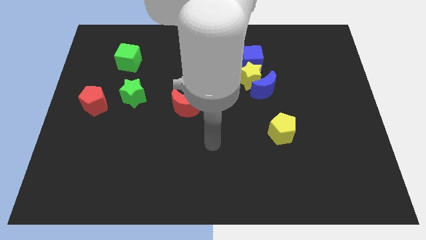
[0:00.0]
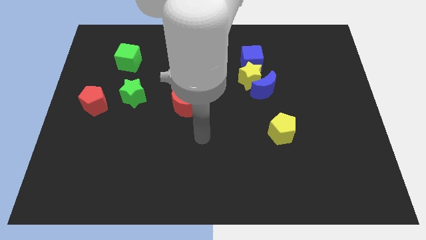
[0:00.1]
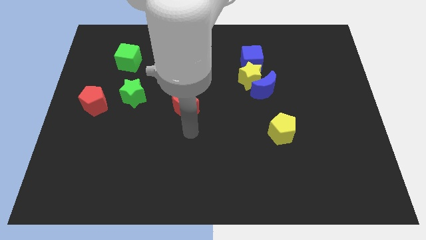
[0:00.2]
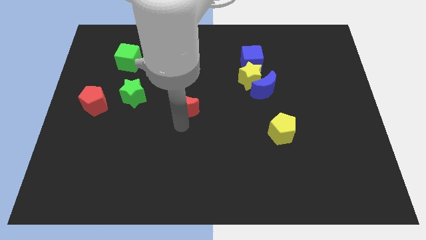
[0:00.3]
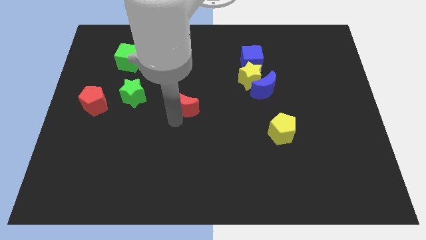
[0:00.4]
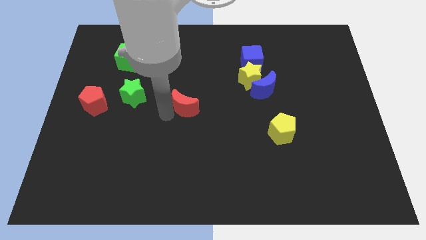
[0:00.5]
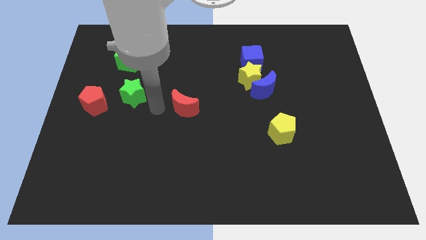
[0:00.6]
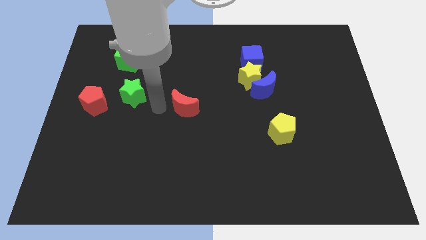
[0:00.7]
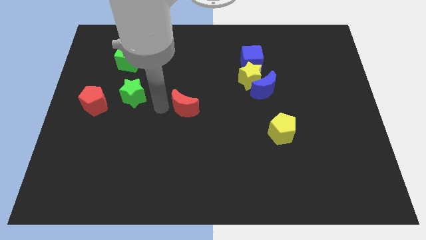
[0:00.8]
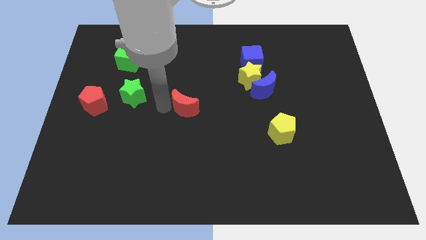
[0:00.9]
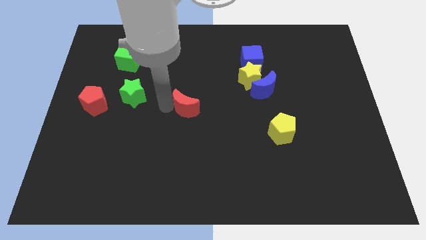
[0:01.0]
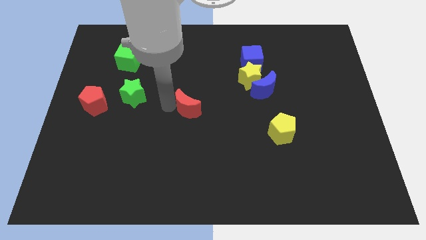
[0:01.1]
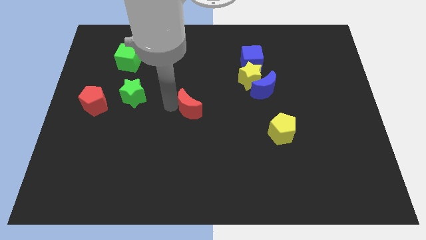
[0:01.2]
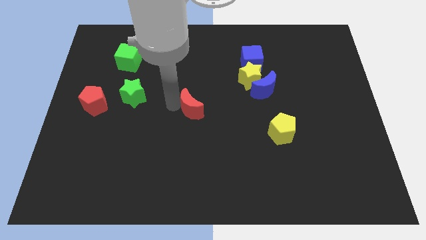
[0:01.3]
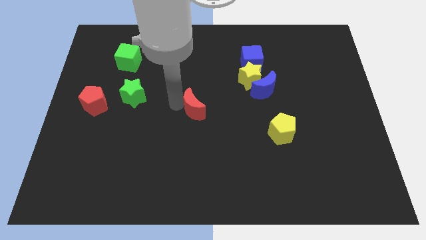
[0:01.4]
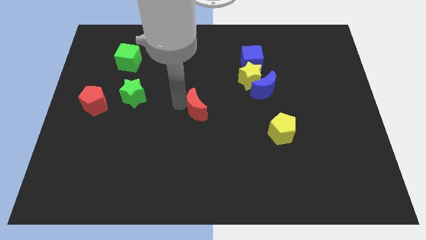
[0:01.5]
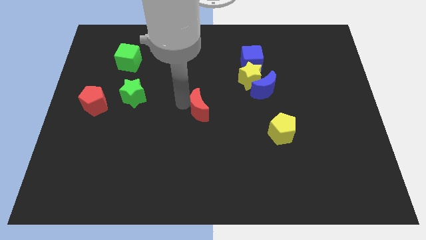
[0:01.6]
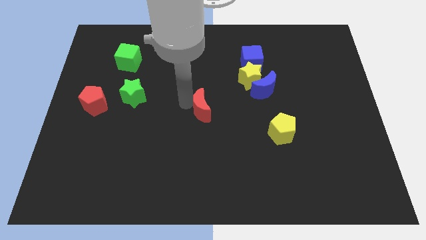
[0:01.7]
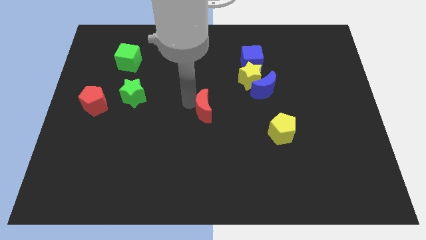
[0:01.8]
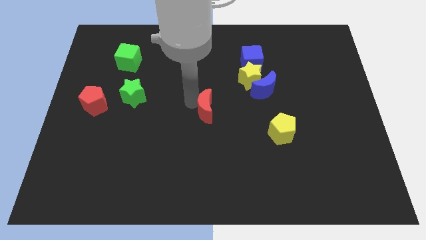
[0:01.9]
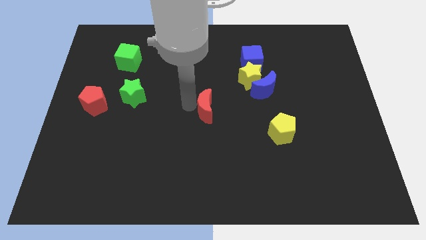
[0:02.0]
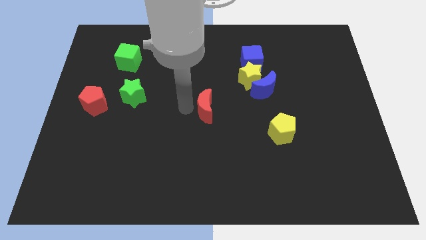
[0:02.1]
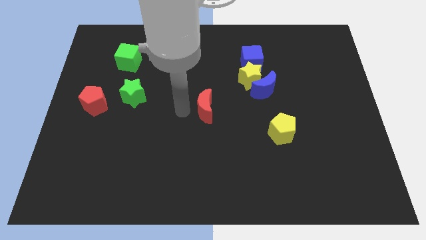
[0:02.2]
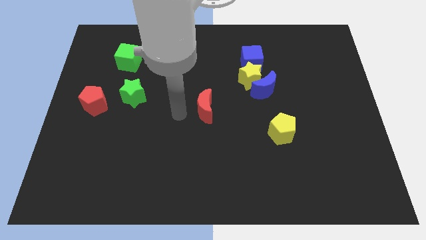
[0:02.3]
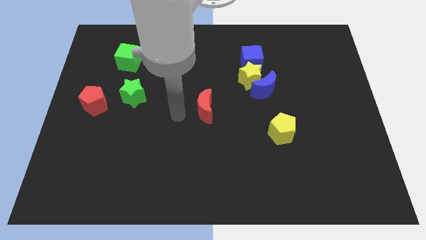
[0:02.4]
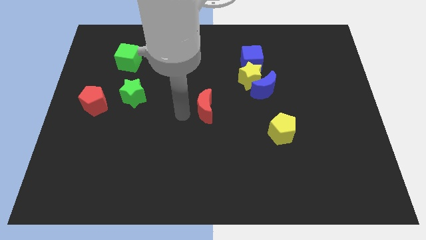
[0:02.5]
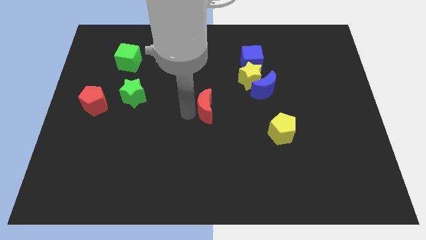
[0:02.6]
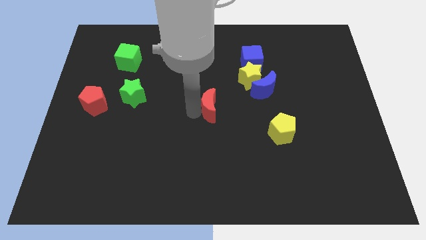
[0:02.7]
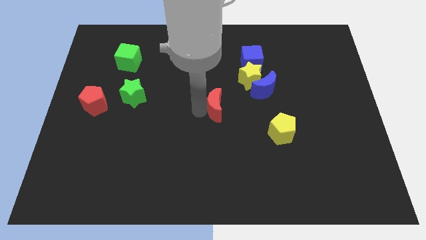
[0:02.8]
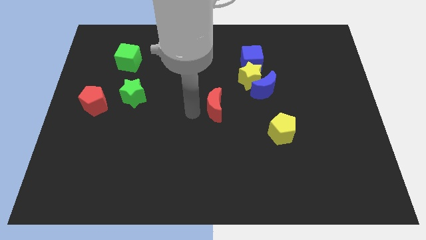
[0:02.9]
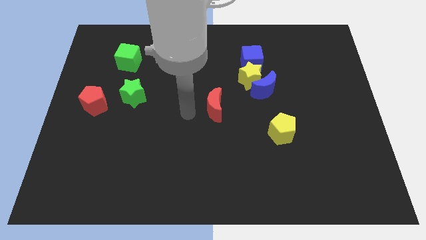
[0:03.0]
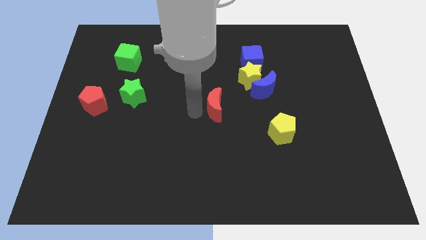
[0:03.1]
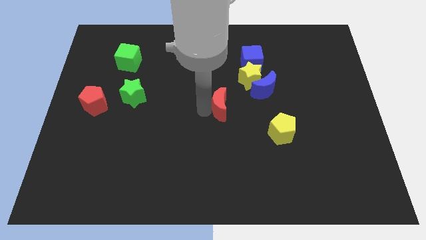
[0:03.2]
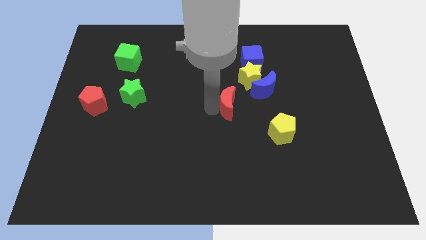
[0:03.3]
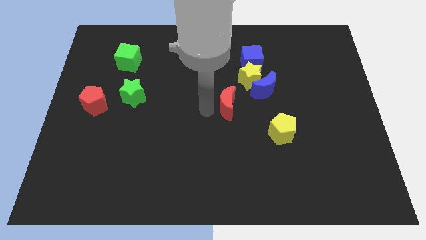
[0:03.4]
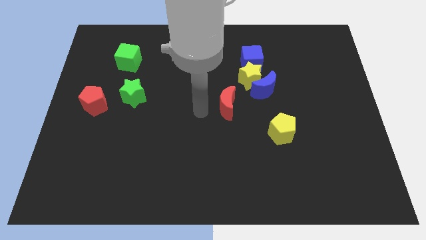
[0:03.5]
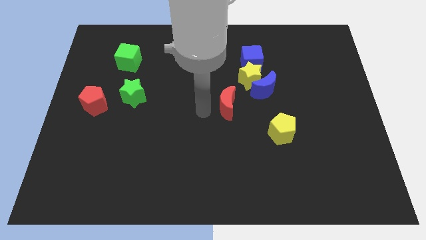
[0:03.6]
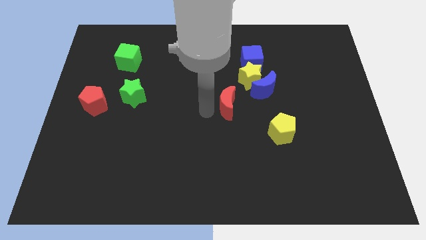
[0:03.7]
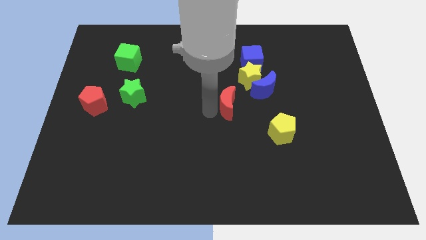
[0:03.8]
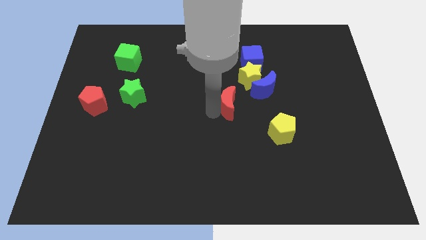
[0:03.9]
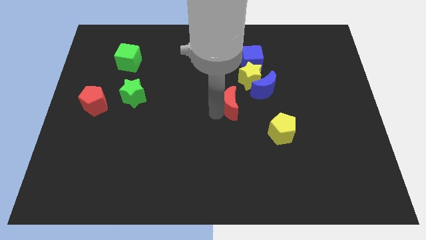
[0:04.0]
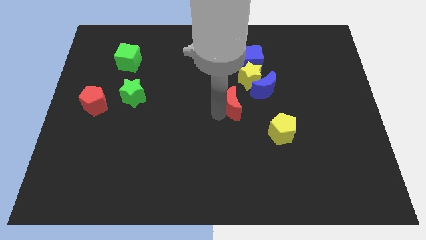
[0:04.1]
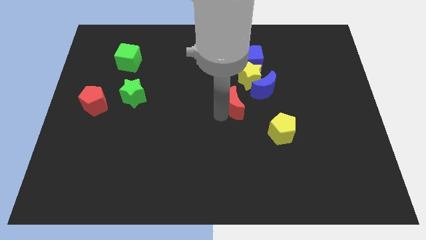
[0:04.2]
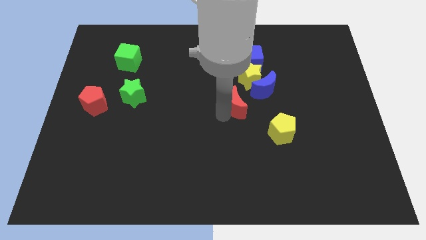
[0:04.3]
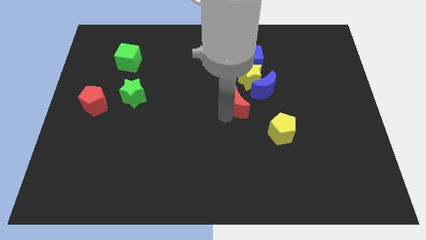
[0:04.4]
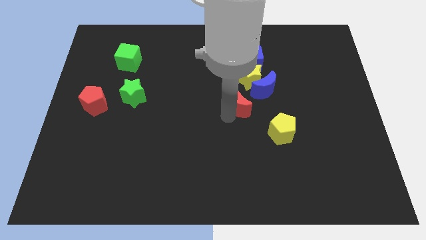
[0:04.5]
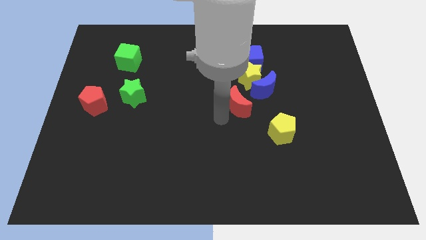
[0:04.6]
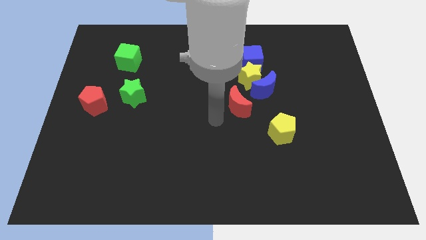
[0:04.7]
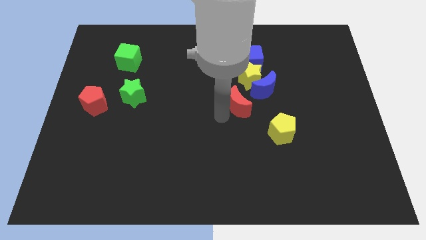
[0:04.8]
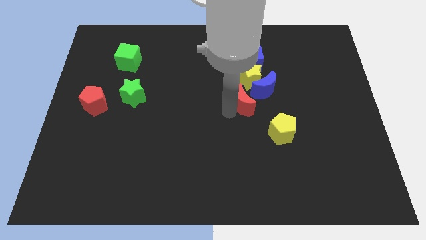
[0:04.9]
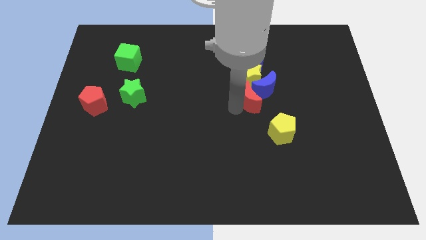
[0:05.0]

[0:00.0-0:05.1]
move the red moon next to the blue moon

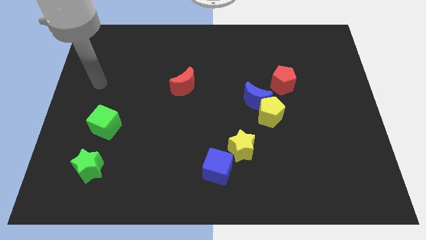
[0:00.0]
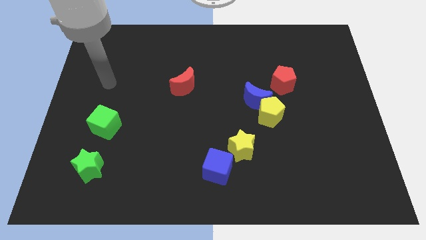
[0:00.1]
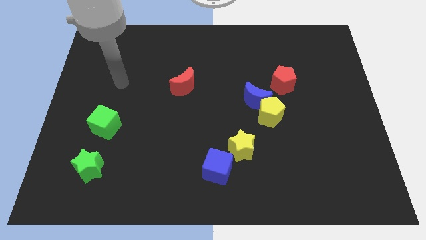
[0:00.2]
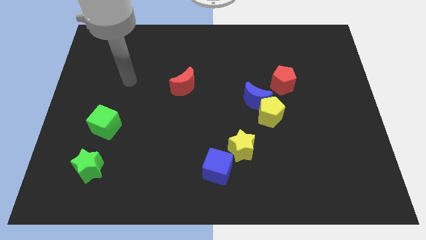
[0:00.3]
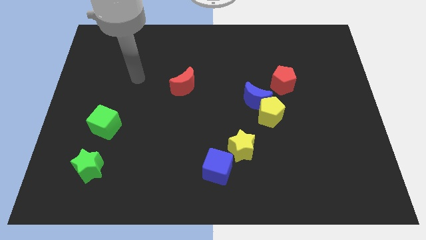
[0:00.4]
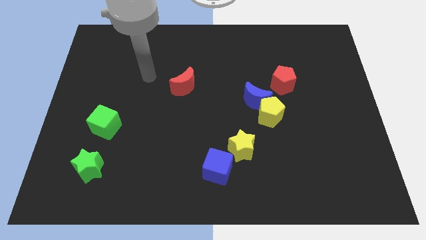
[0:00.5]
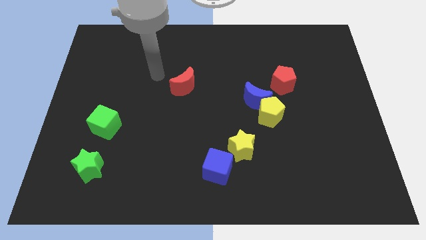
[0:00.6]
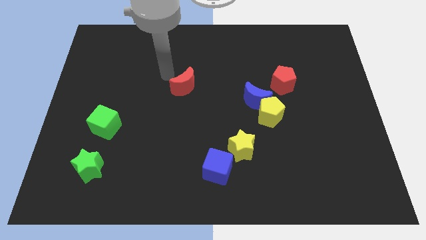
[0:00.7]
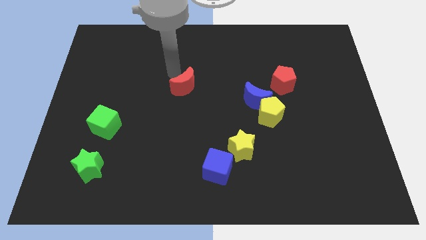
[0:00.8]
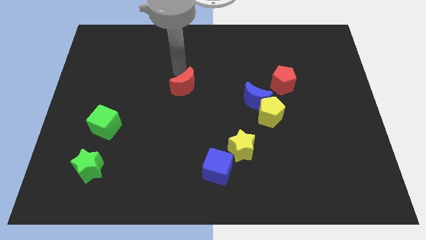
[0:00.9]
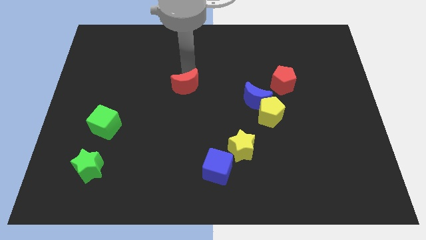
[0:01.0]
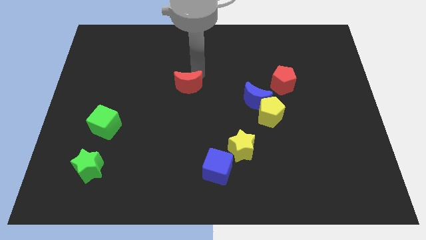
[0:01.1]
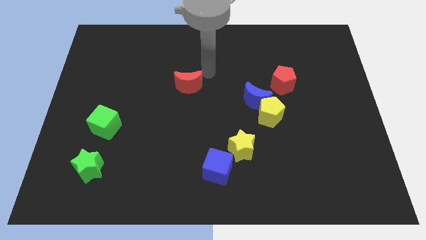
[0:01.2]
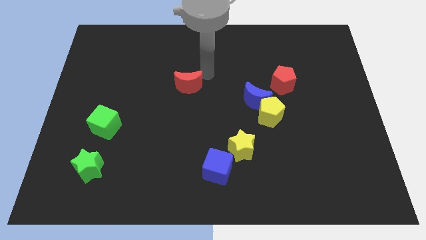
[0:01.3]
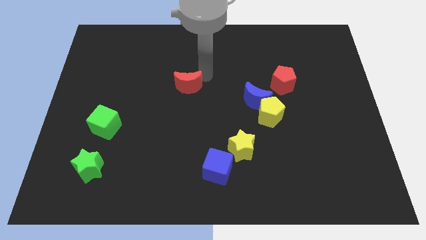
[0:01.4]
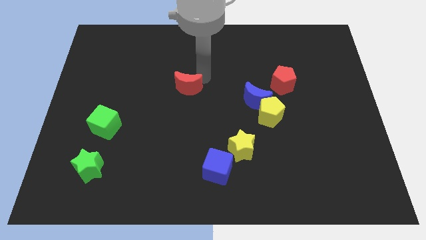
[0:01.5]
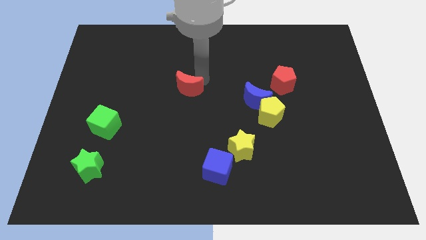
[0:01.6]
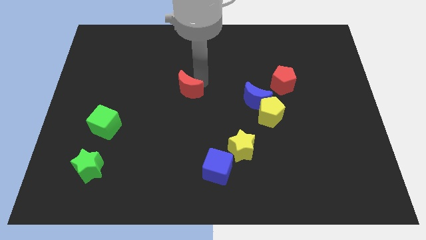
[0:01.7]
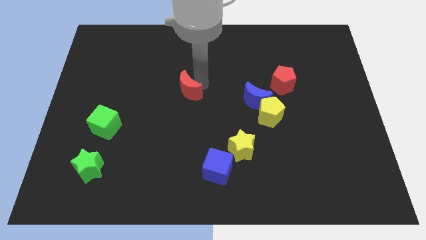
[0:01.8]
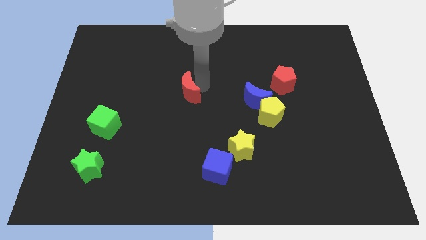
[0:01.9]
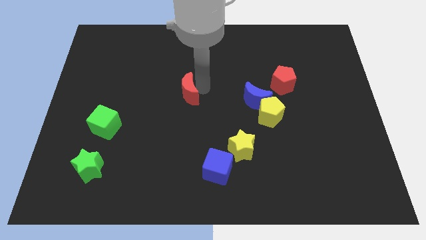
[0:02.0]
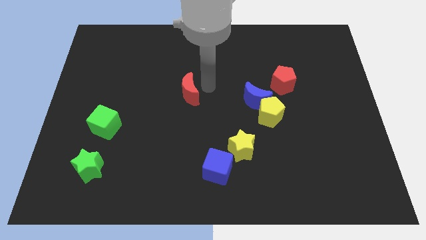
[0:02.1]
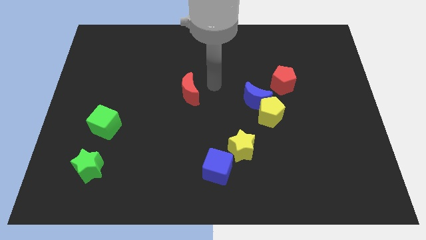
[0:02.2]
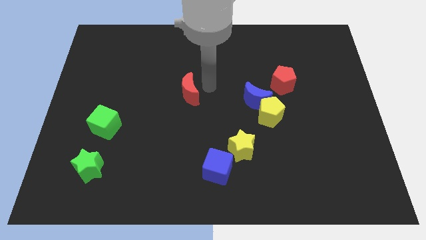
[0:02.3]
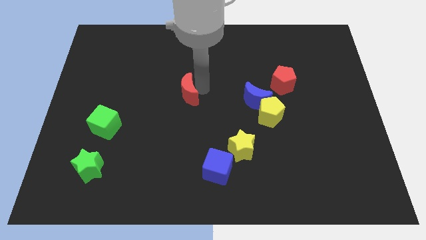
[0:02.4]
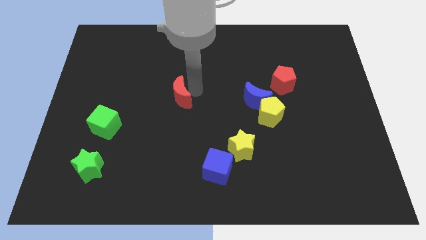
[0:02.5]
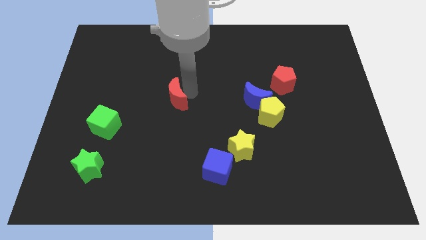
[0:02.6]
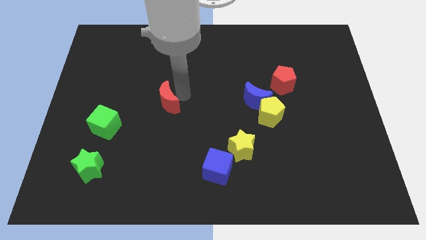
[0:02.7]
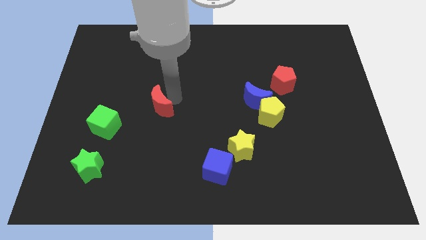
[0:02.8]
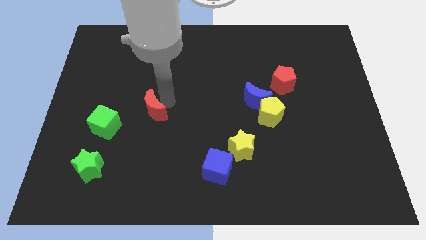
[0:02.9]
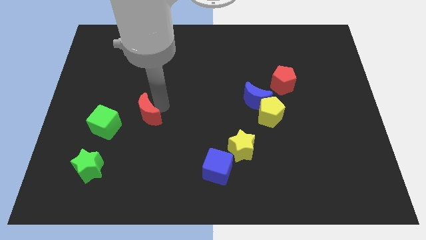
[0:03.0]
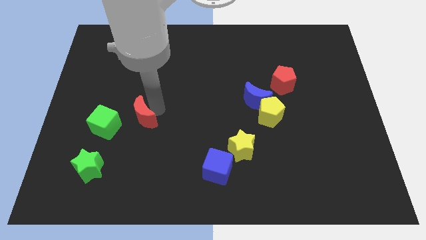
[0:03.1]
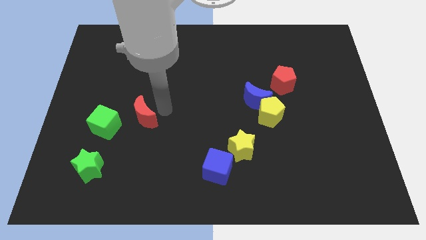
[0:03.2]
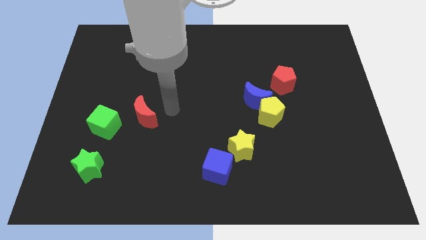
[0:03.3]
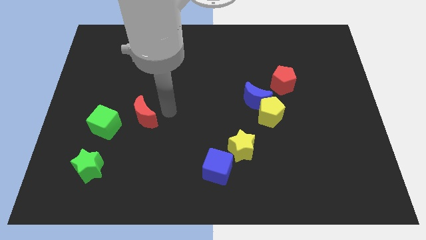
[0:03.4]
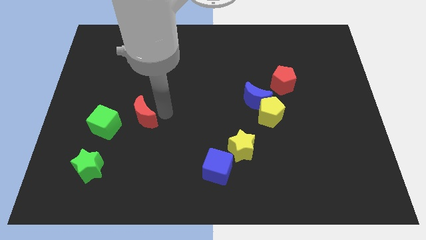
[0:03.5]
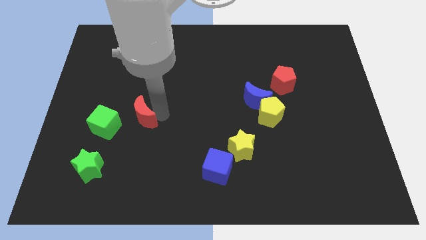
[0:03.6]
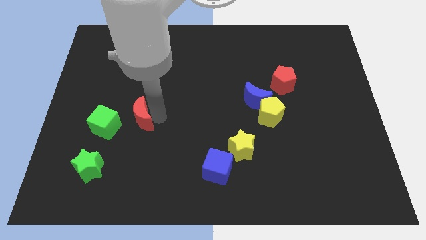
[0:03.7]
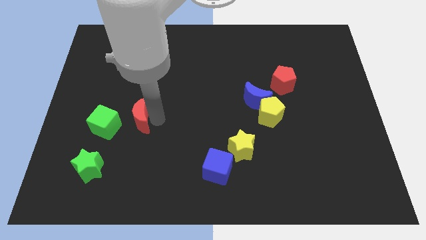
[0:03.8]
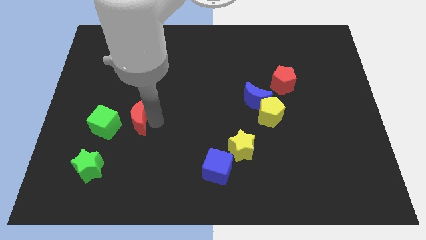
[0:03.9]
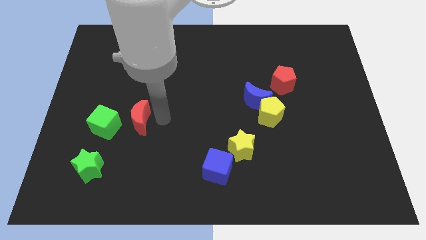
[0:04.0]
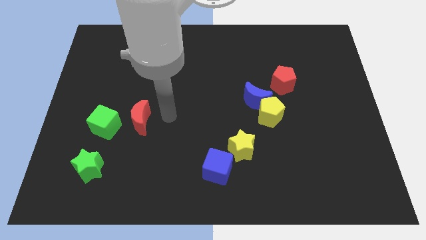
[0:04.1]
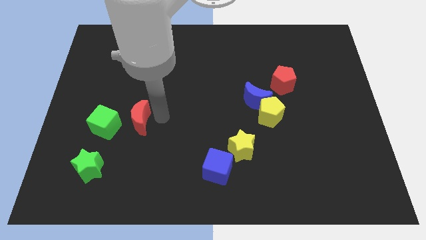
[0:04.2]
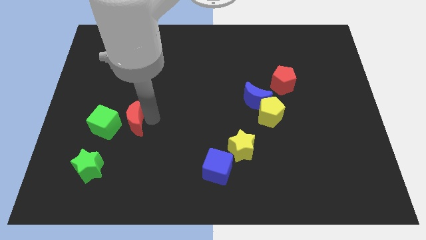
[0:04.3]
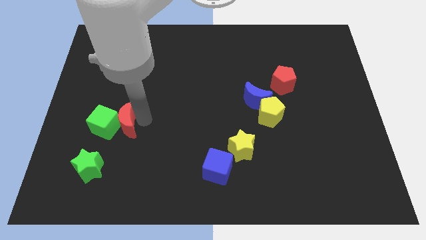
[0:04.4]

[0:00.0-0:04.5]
put the red moon to the green cube
